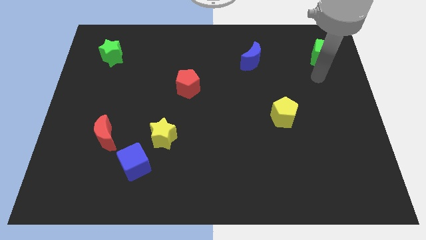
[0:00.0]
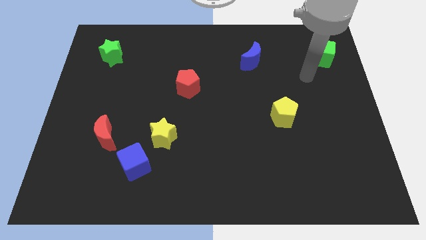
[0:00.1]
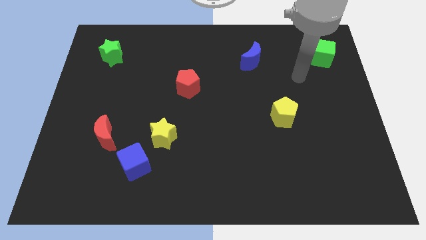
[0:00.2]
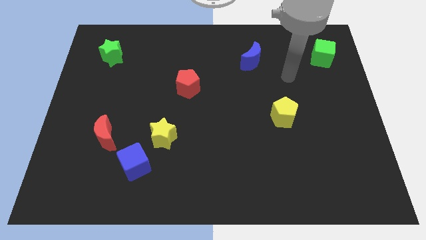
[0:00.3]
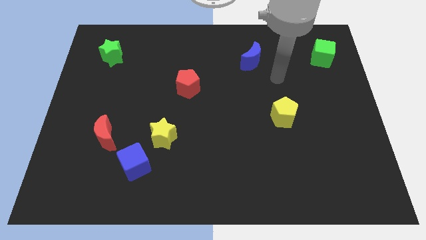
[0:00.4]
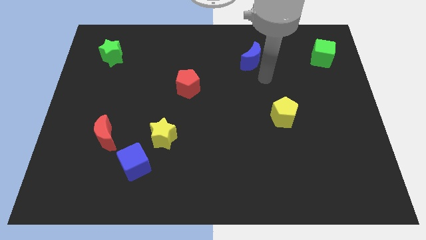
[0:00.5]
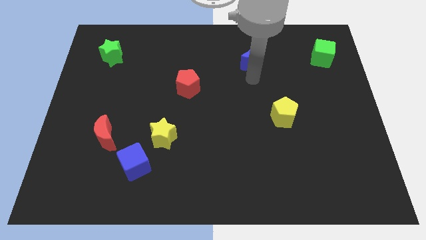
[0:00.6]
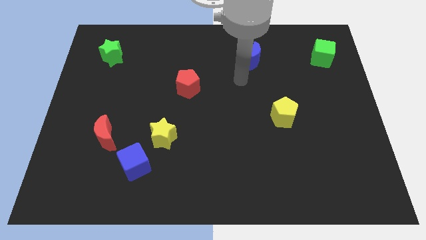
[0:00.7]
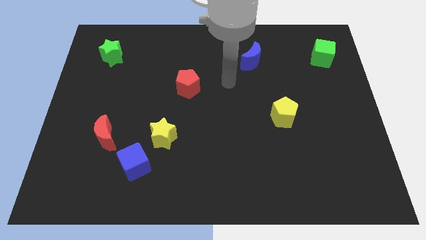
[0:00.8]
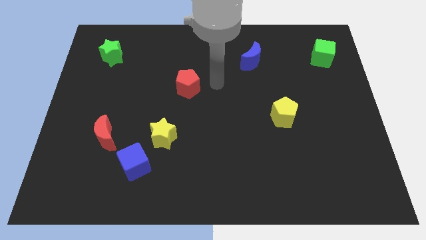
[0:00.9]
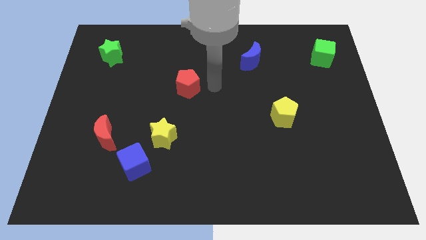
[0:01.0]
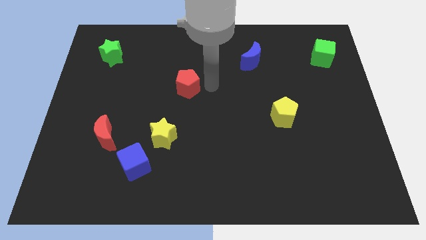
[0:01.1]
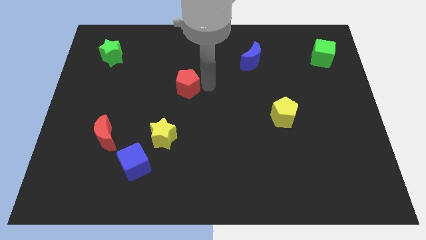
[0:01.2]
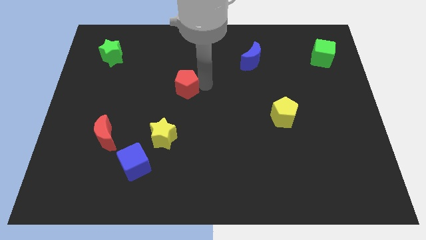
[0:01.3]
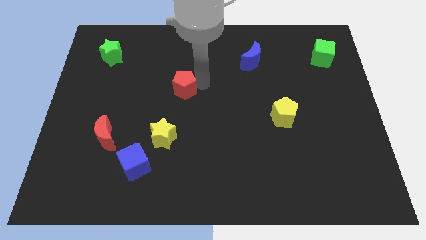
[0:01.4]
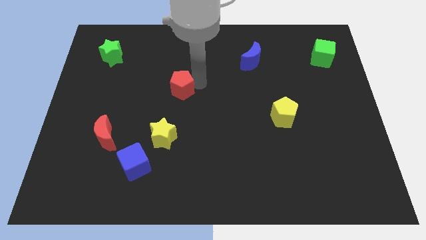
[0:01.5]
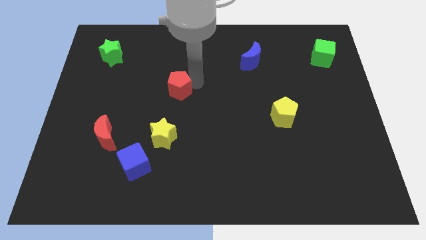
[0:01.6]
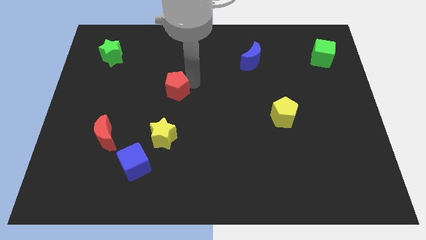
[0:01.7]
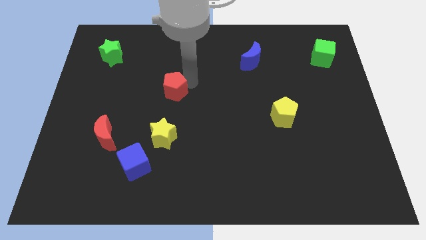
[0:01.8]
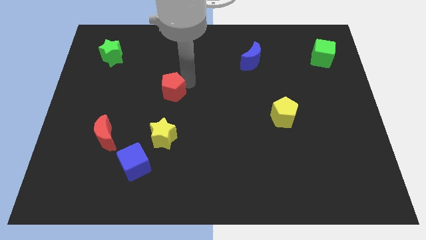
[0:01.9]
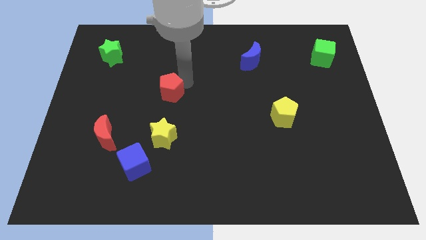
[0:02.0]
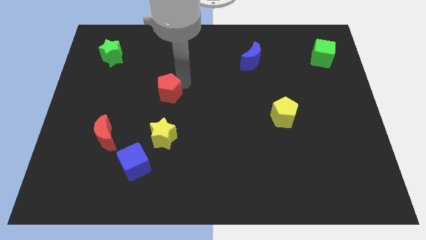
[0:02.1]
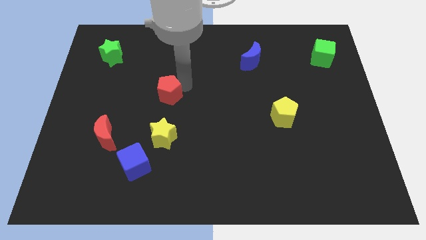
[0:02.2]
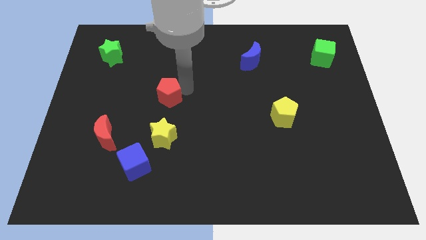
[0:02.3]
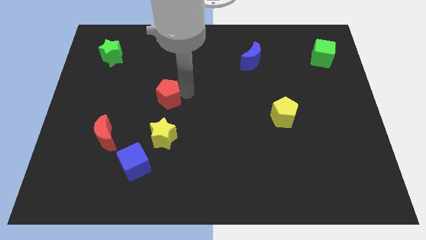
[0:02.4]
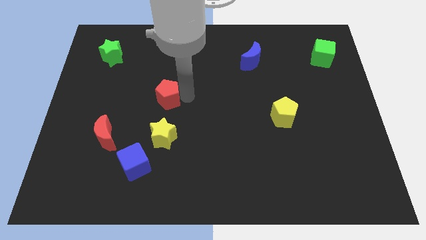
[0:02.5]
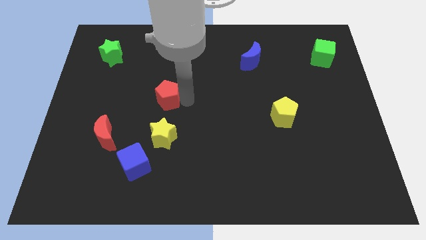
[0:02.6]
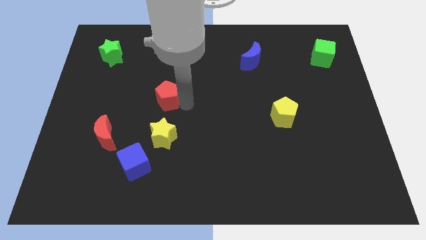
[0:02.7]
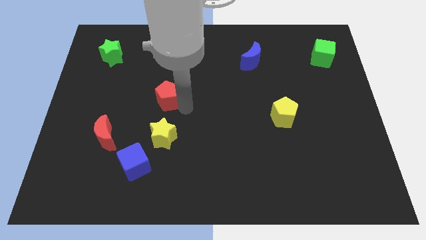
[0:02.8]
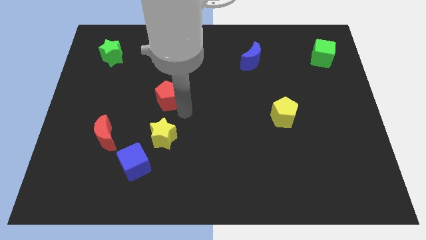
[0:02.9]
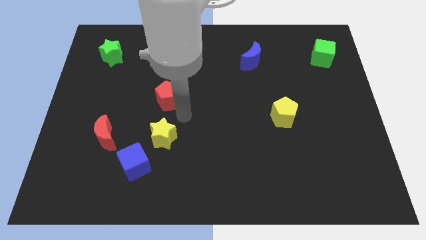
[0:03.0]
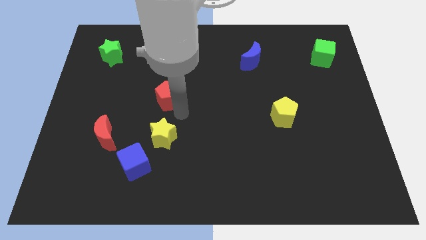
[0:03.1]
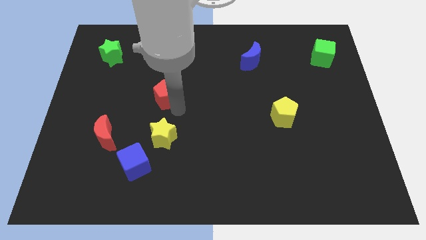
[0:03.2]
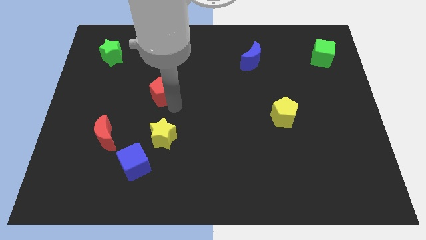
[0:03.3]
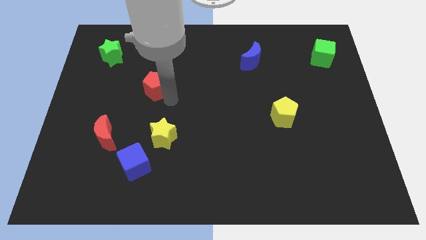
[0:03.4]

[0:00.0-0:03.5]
slightly push the red pentagon left

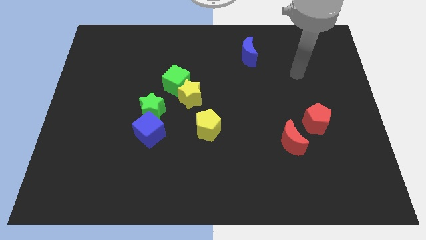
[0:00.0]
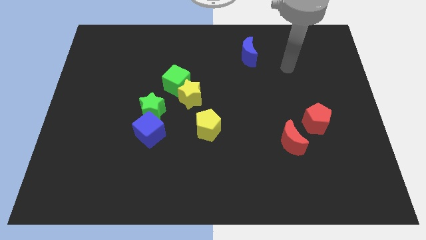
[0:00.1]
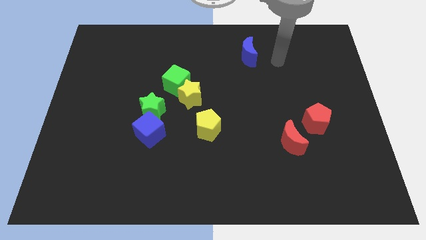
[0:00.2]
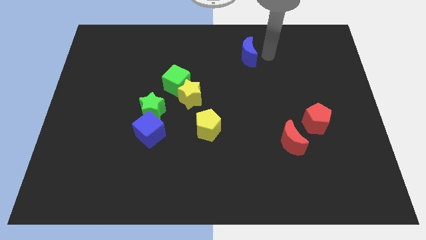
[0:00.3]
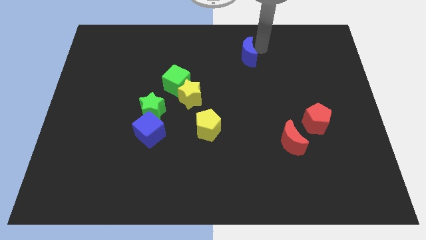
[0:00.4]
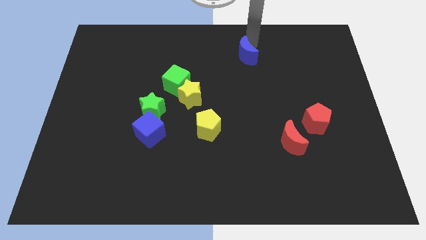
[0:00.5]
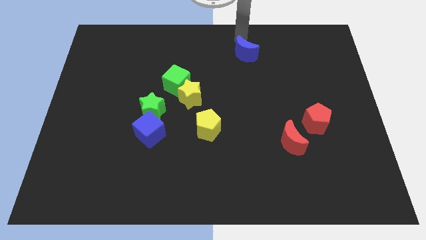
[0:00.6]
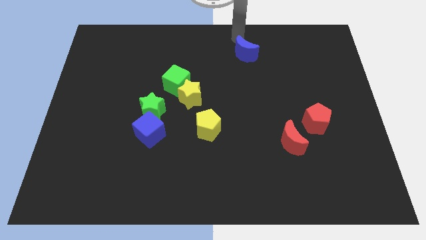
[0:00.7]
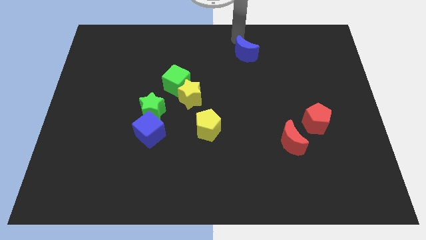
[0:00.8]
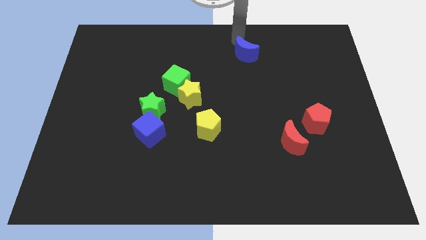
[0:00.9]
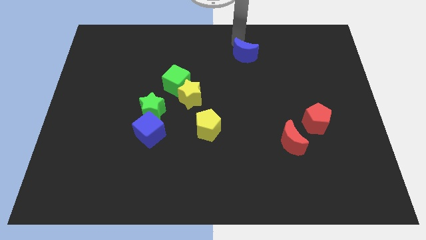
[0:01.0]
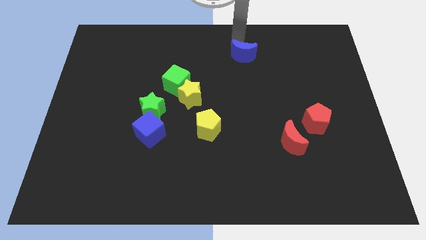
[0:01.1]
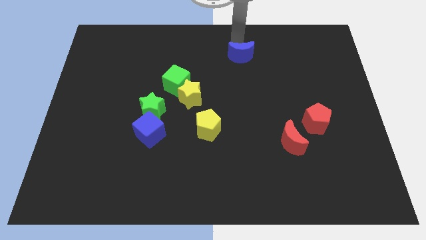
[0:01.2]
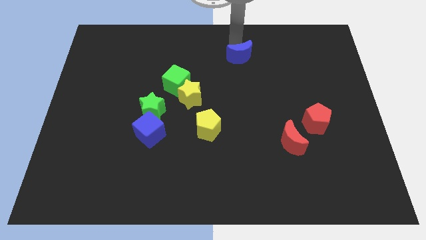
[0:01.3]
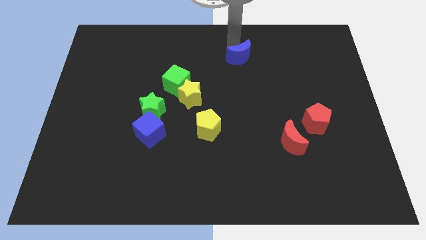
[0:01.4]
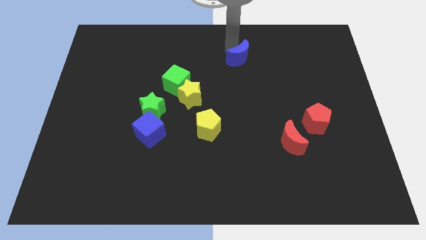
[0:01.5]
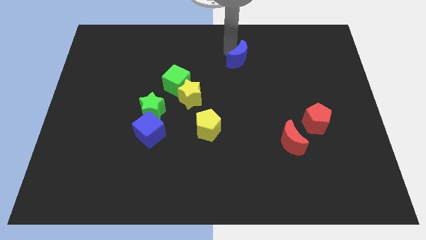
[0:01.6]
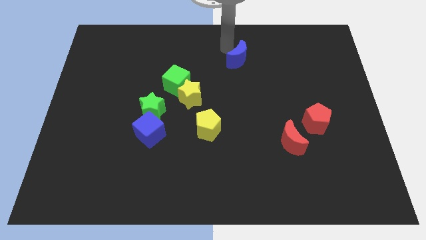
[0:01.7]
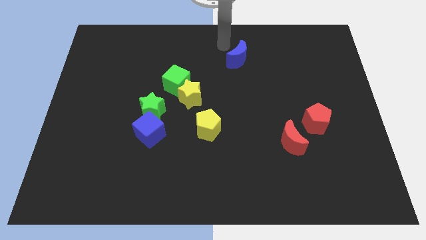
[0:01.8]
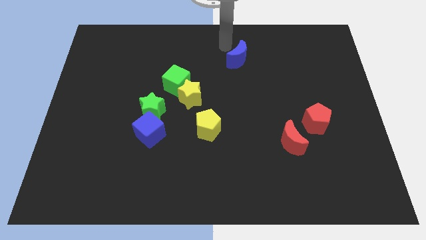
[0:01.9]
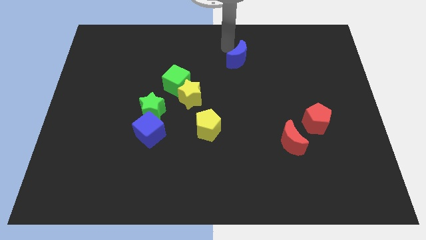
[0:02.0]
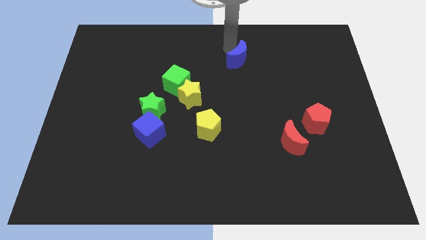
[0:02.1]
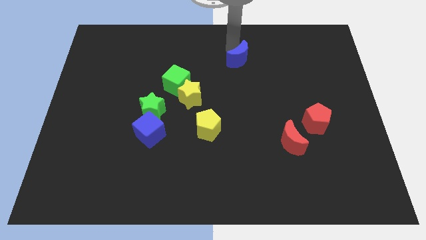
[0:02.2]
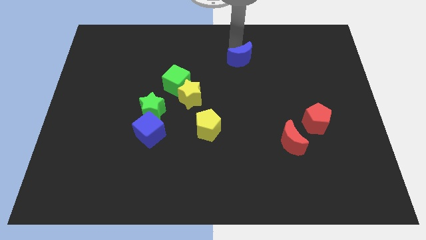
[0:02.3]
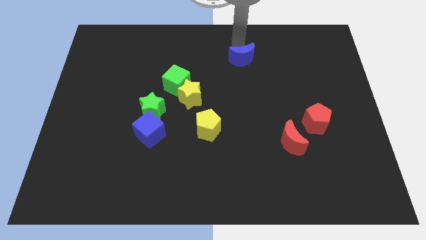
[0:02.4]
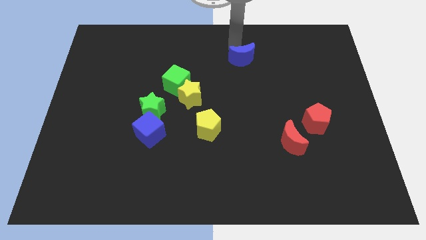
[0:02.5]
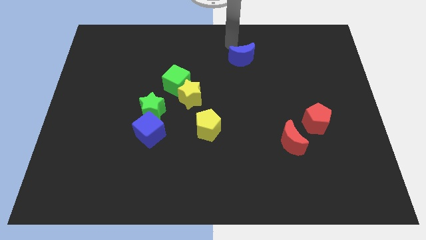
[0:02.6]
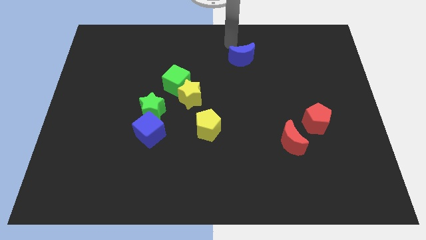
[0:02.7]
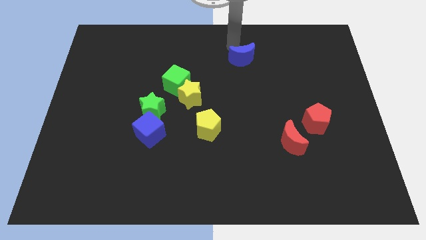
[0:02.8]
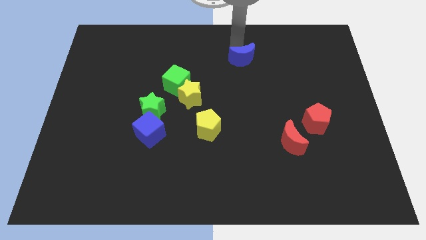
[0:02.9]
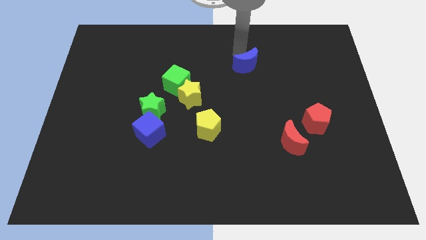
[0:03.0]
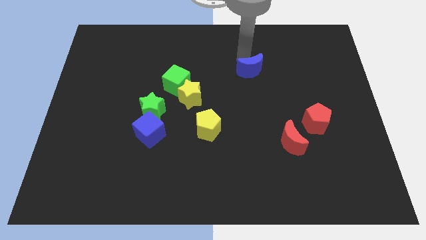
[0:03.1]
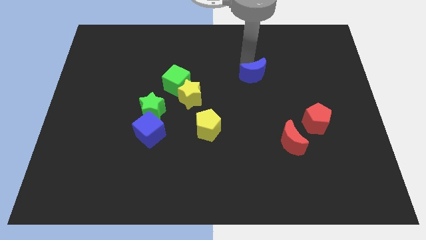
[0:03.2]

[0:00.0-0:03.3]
move the blue moon slightly down

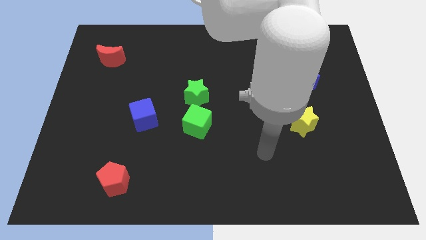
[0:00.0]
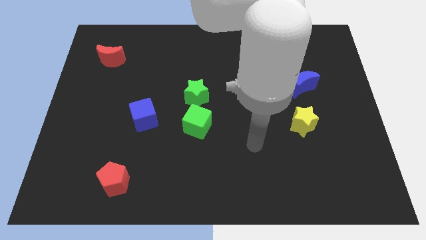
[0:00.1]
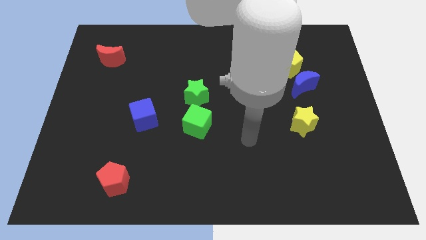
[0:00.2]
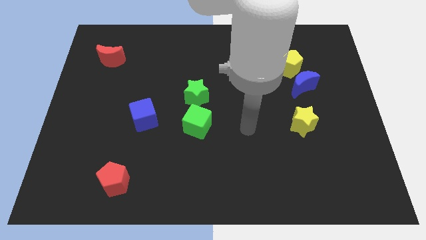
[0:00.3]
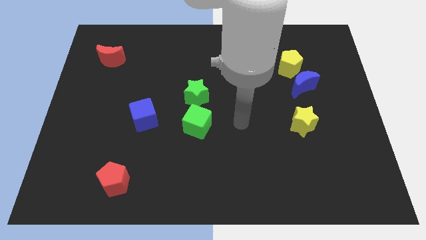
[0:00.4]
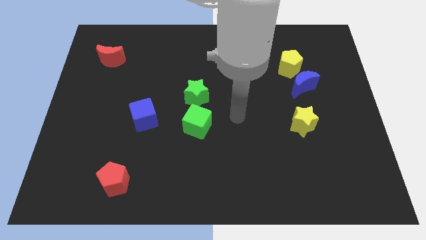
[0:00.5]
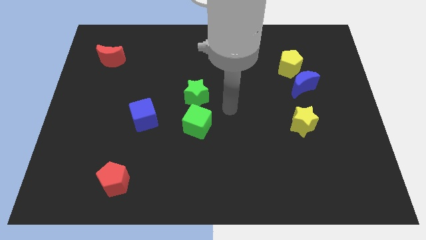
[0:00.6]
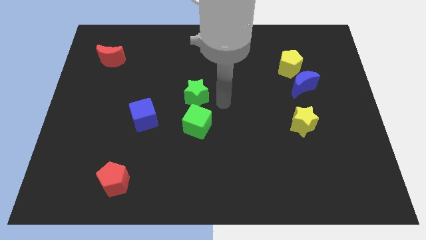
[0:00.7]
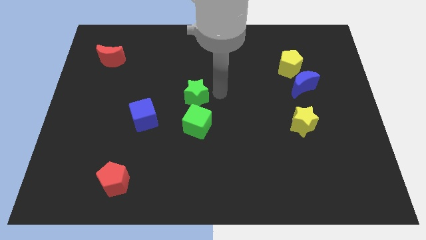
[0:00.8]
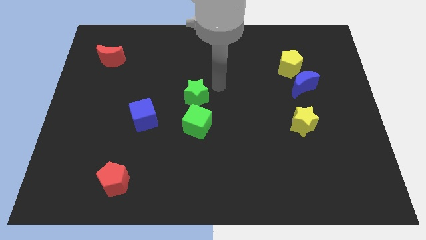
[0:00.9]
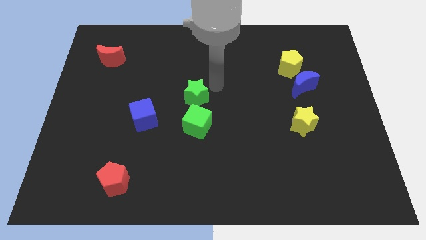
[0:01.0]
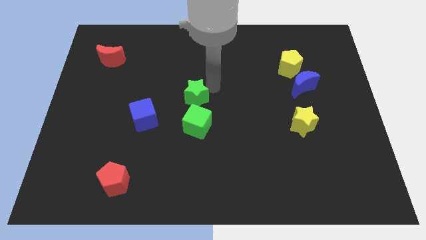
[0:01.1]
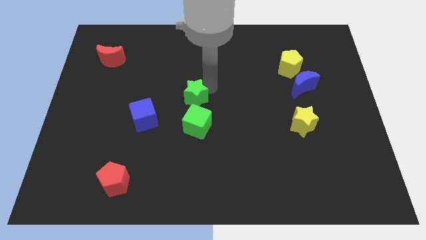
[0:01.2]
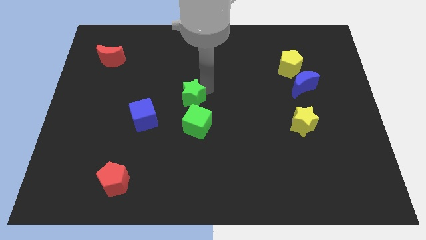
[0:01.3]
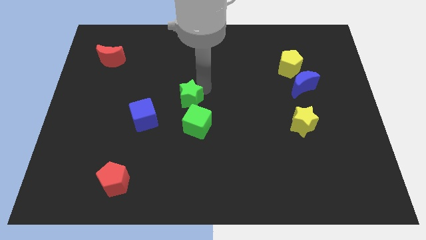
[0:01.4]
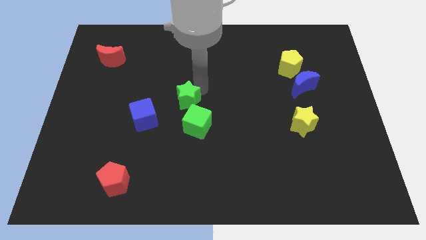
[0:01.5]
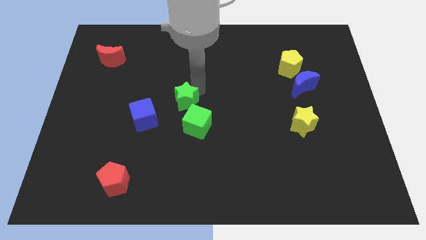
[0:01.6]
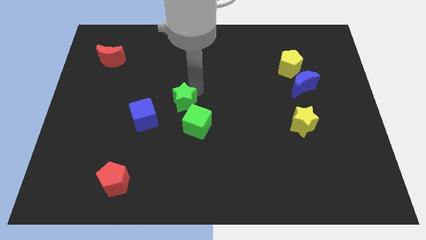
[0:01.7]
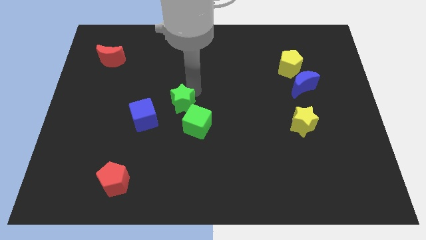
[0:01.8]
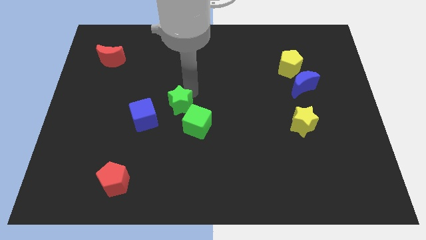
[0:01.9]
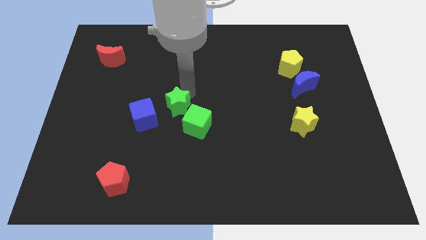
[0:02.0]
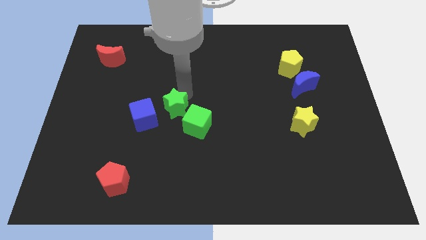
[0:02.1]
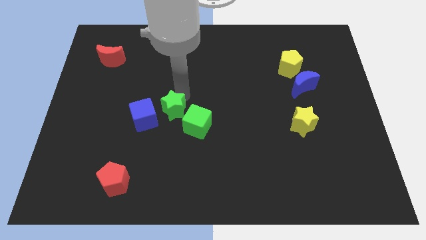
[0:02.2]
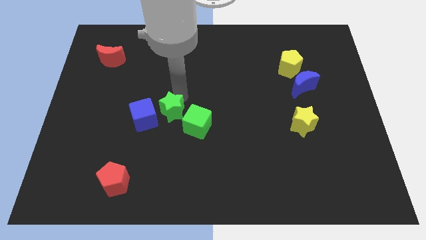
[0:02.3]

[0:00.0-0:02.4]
push the green star a bit diagonally down and left
